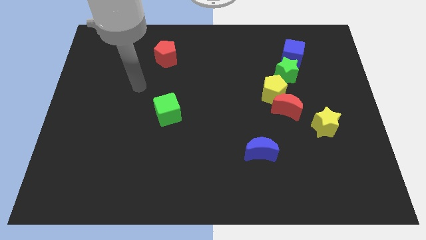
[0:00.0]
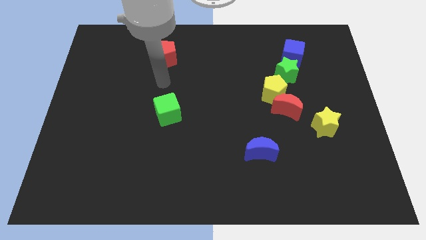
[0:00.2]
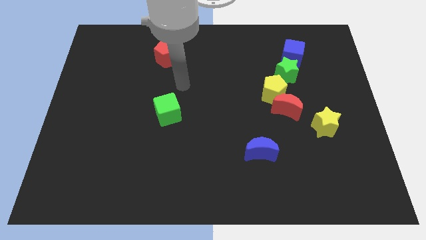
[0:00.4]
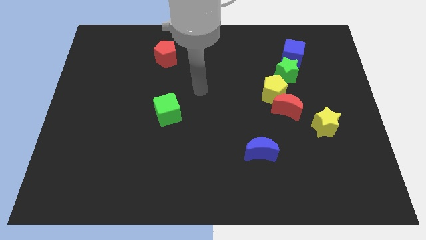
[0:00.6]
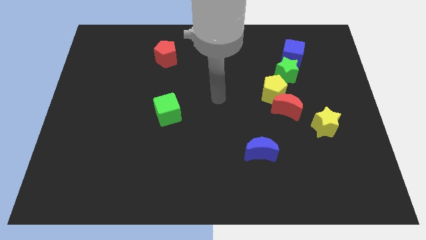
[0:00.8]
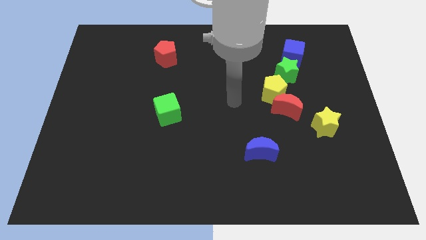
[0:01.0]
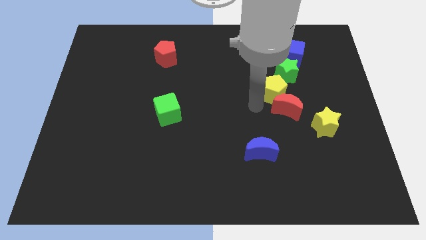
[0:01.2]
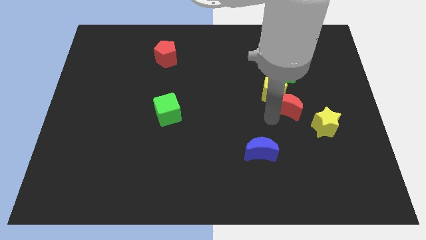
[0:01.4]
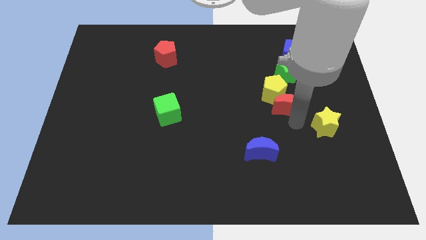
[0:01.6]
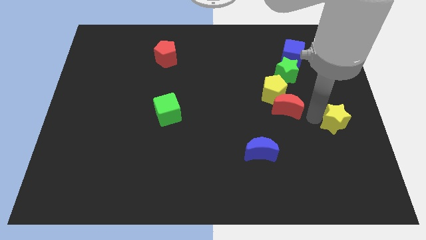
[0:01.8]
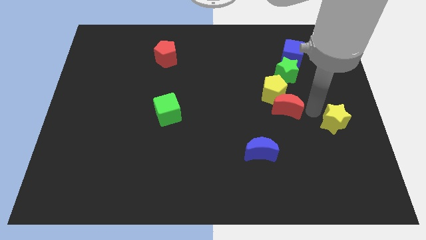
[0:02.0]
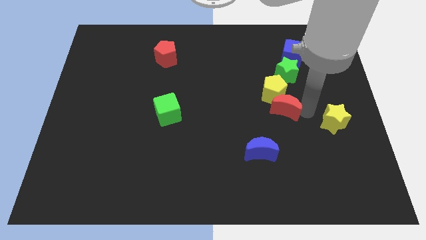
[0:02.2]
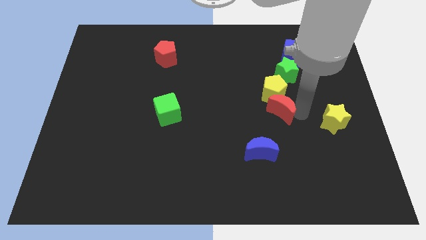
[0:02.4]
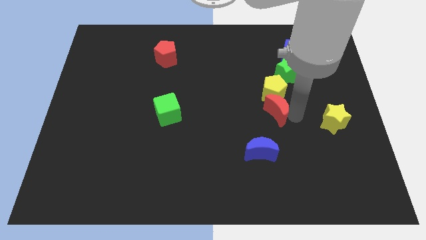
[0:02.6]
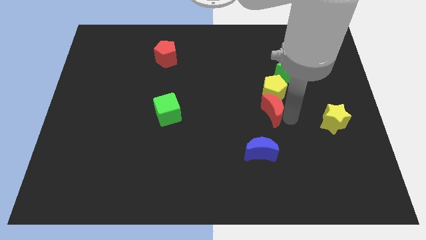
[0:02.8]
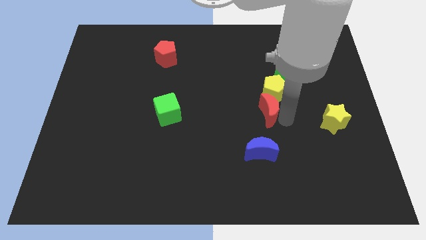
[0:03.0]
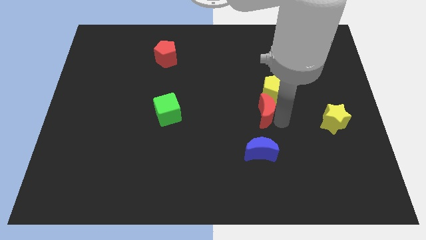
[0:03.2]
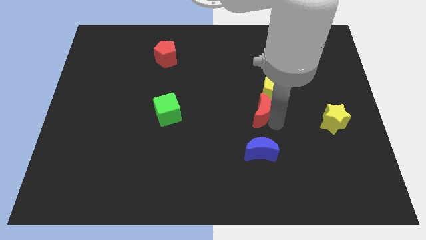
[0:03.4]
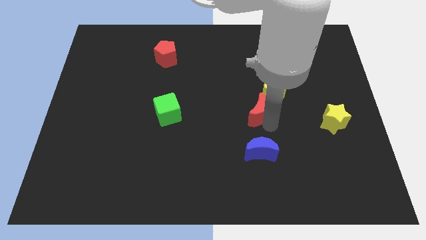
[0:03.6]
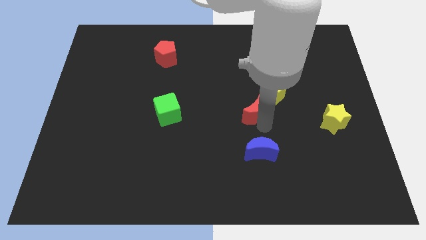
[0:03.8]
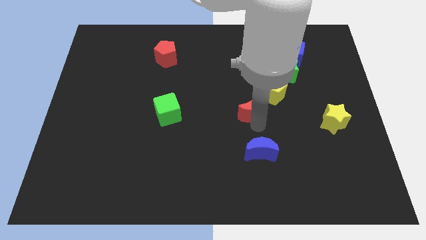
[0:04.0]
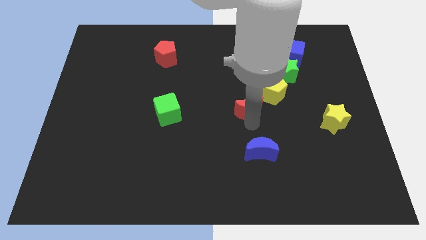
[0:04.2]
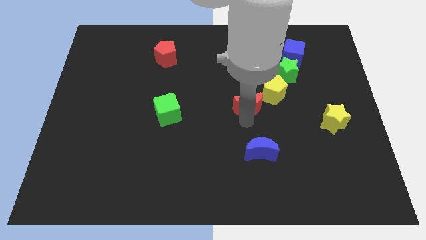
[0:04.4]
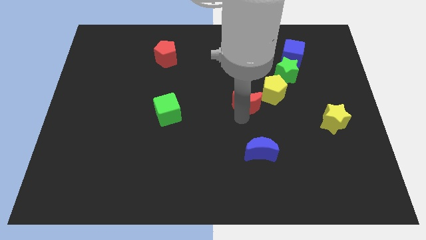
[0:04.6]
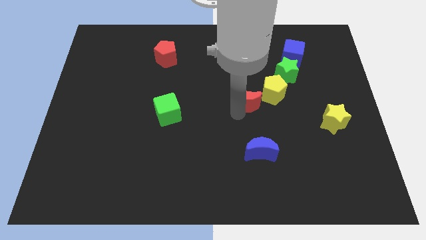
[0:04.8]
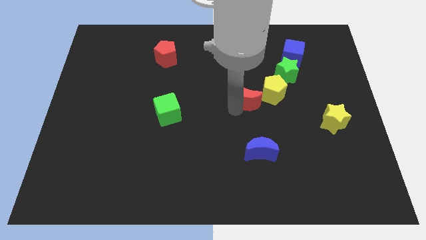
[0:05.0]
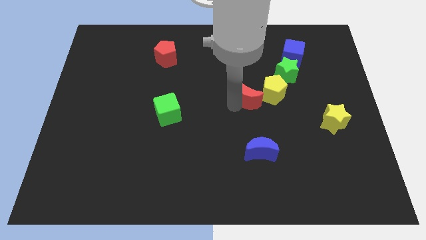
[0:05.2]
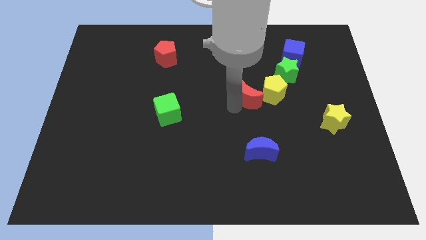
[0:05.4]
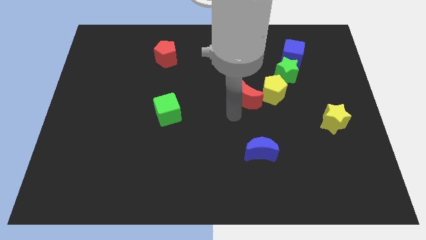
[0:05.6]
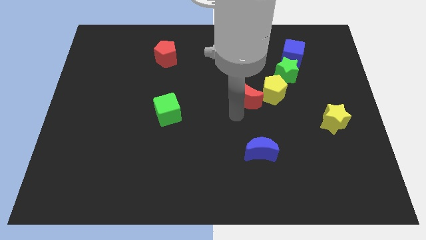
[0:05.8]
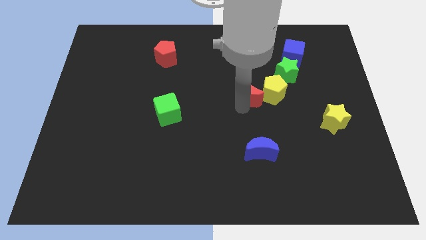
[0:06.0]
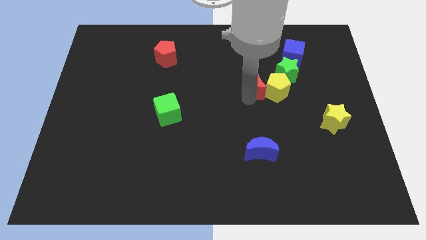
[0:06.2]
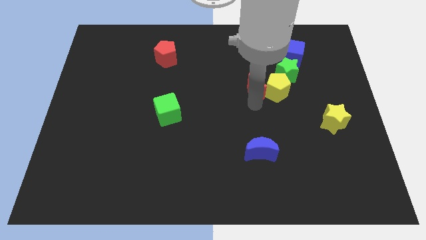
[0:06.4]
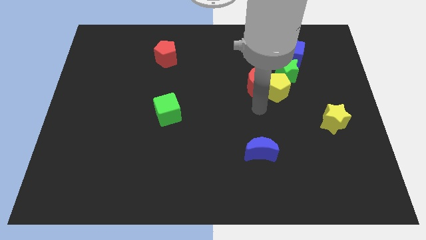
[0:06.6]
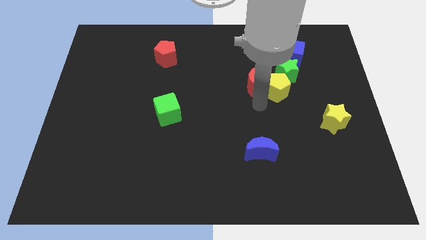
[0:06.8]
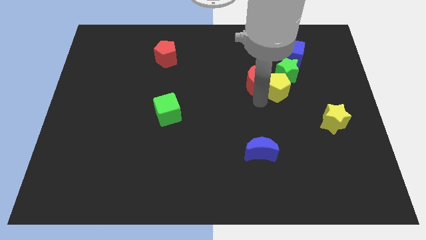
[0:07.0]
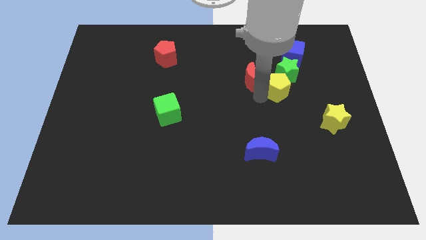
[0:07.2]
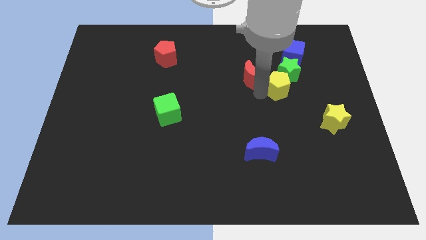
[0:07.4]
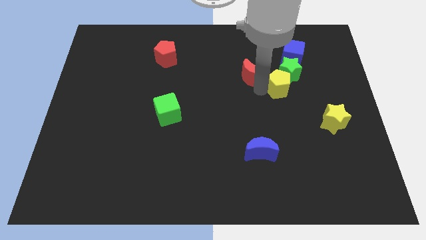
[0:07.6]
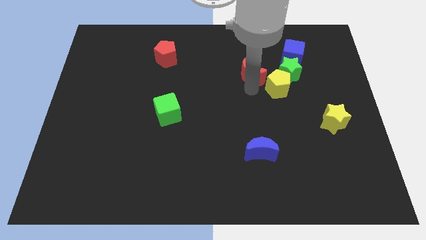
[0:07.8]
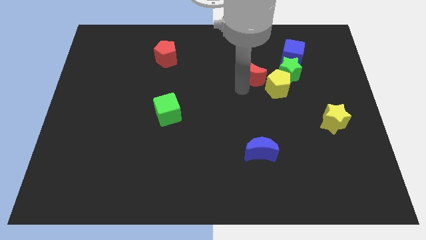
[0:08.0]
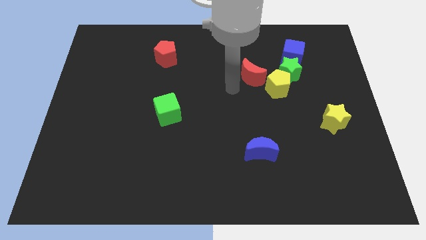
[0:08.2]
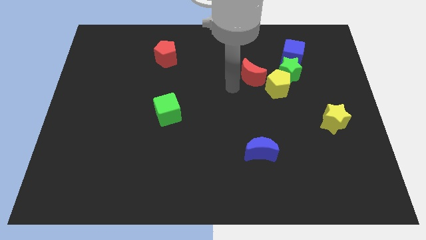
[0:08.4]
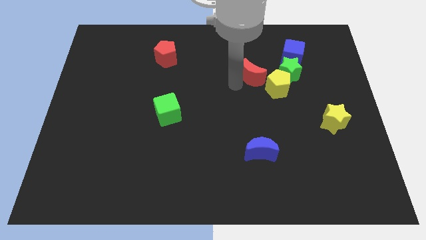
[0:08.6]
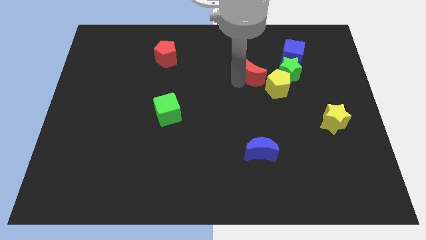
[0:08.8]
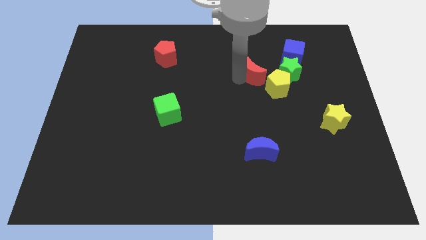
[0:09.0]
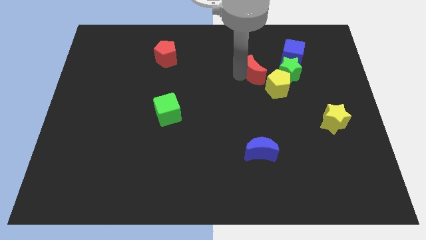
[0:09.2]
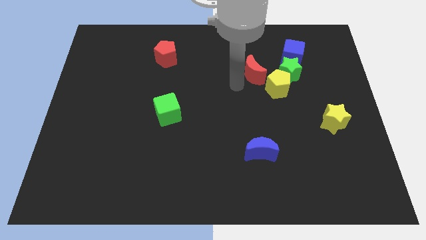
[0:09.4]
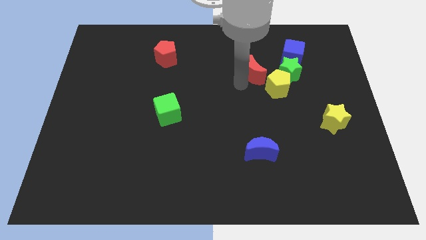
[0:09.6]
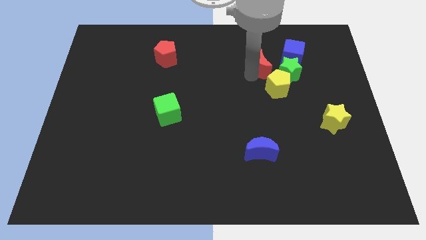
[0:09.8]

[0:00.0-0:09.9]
push the red moon to the top side of the yellow pentagon
